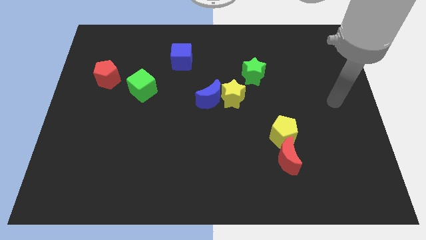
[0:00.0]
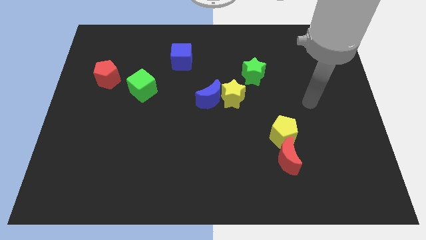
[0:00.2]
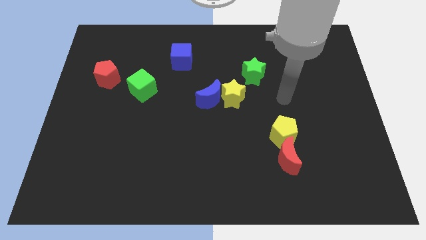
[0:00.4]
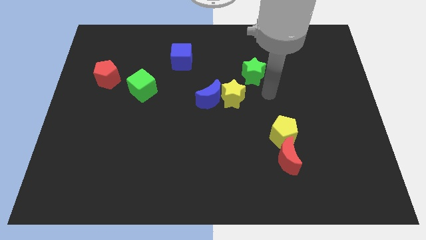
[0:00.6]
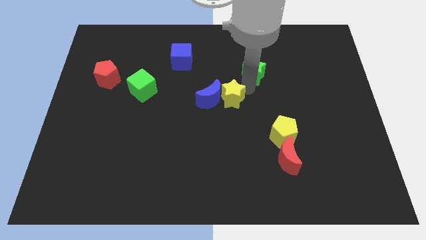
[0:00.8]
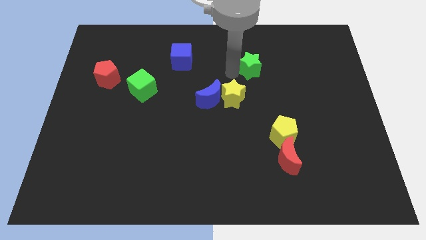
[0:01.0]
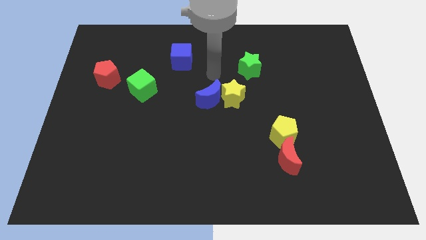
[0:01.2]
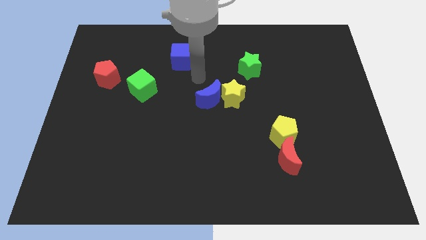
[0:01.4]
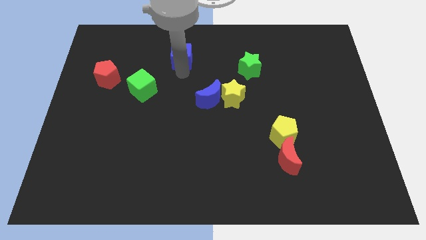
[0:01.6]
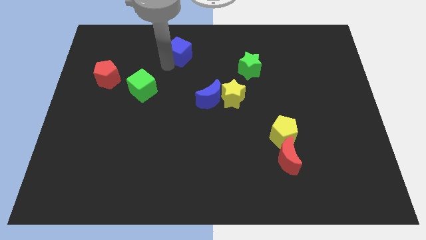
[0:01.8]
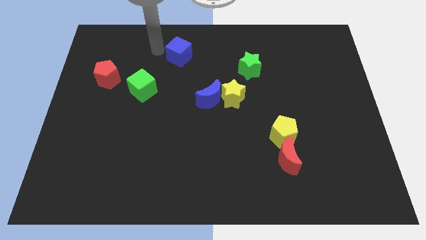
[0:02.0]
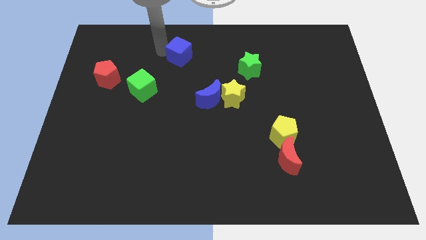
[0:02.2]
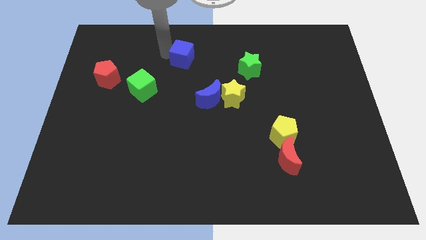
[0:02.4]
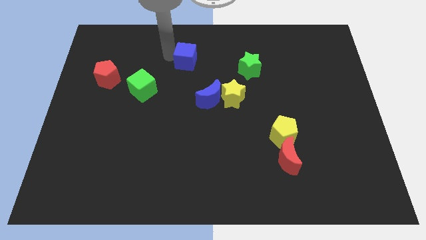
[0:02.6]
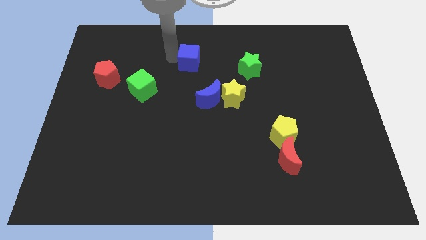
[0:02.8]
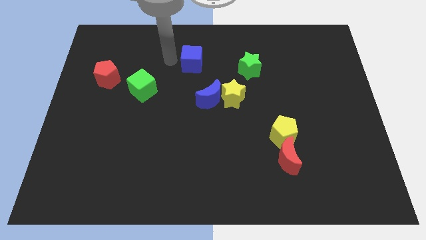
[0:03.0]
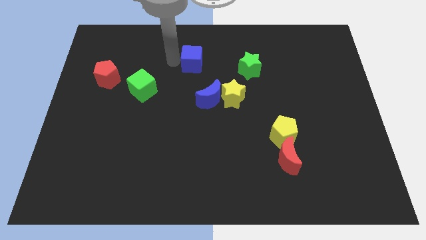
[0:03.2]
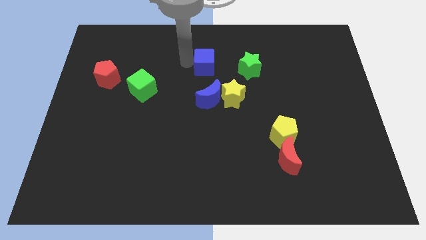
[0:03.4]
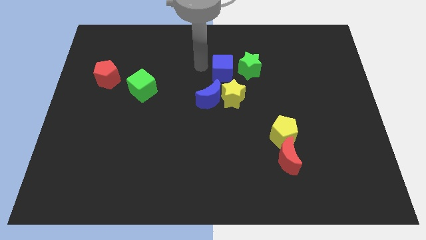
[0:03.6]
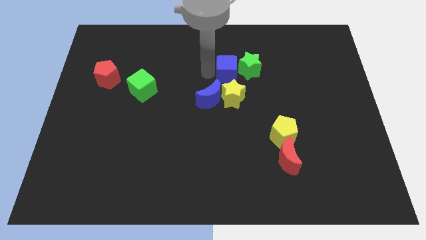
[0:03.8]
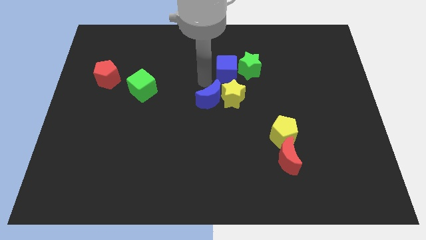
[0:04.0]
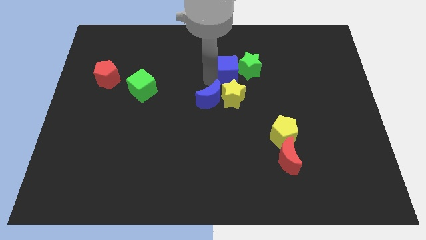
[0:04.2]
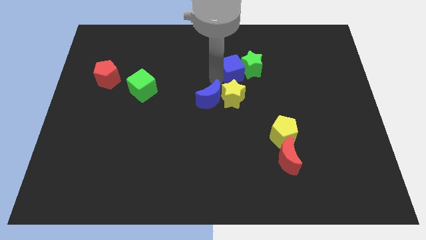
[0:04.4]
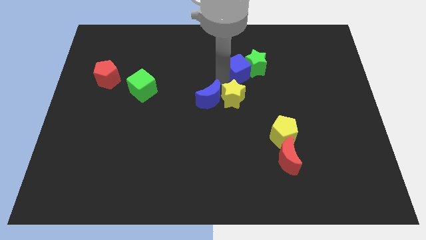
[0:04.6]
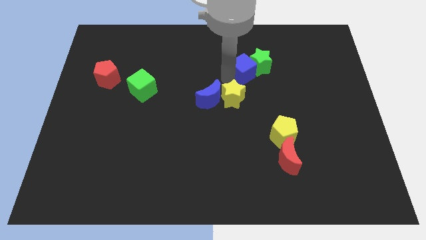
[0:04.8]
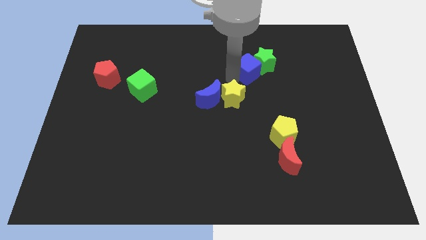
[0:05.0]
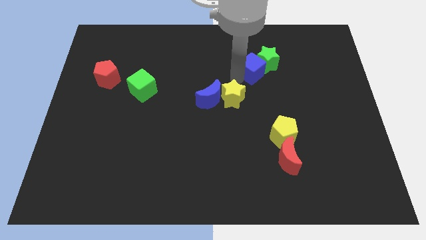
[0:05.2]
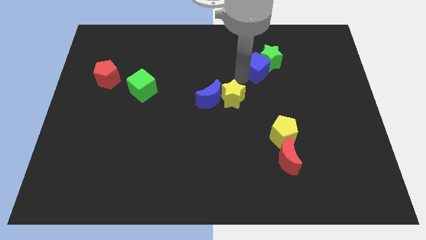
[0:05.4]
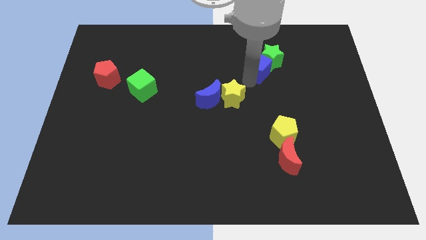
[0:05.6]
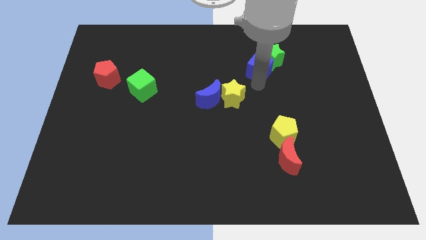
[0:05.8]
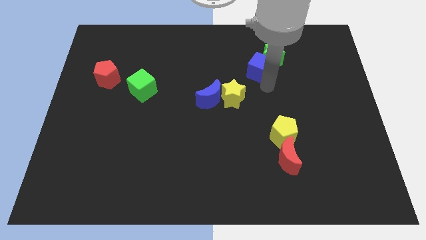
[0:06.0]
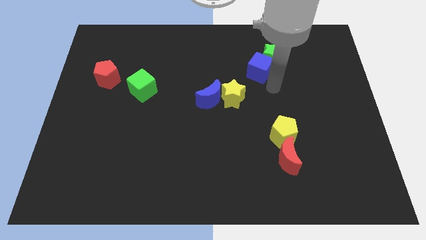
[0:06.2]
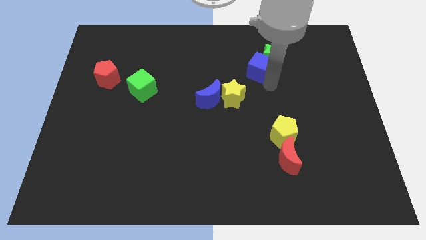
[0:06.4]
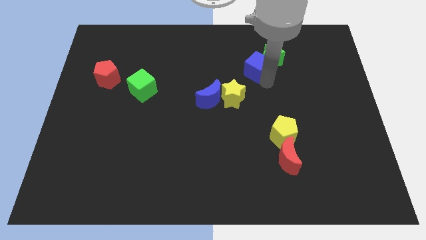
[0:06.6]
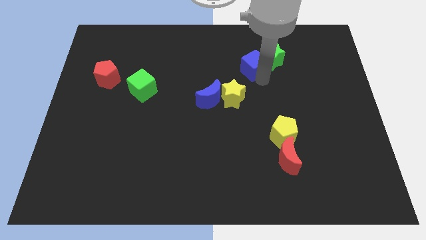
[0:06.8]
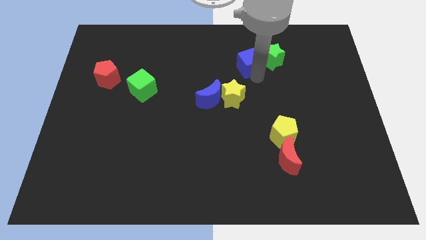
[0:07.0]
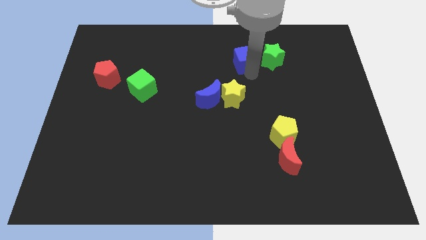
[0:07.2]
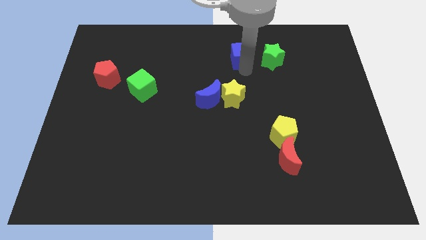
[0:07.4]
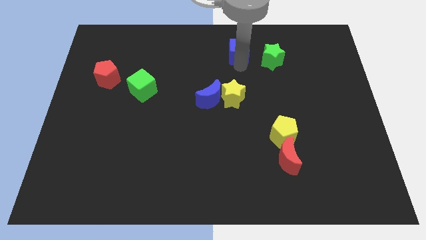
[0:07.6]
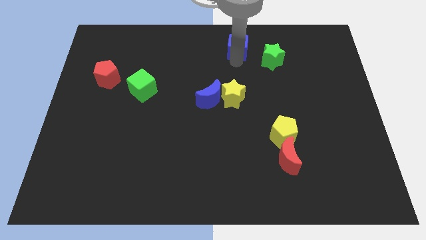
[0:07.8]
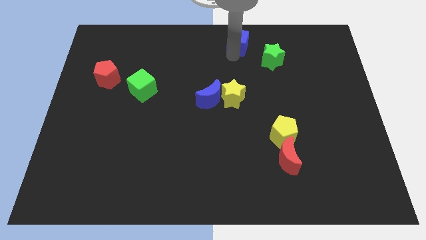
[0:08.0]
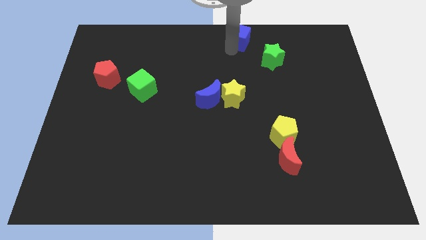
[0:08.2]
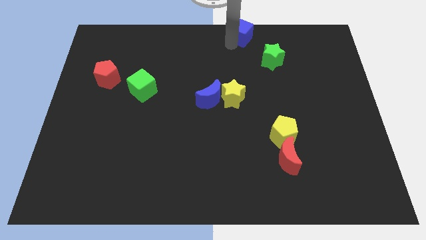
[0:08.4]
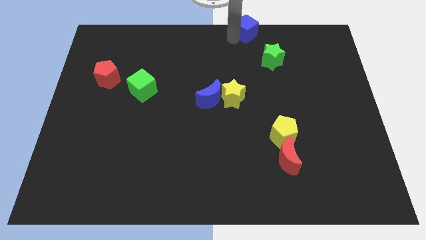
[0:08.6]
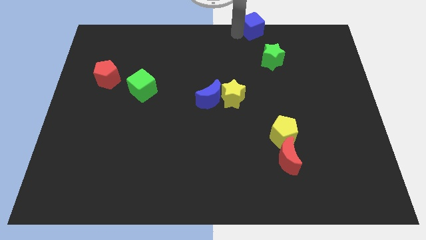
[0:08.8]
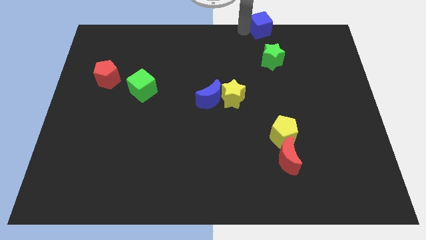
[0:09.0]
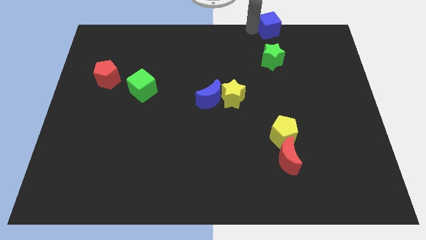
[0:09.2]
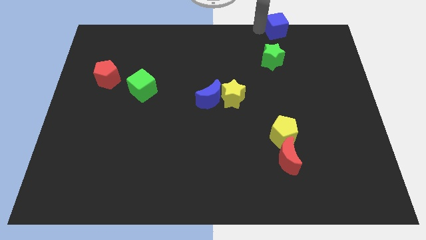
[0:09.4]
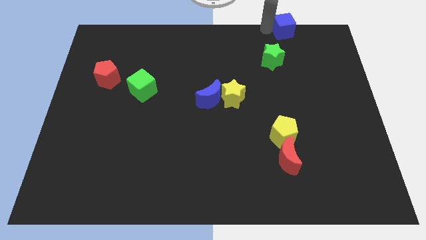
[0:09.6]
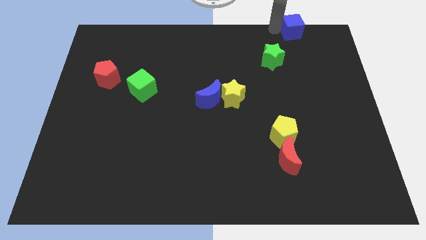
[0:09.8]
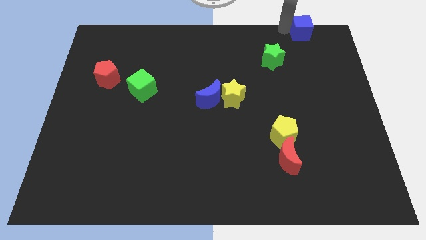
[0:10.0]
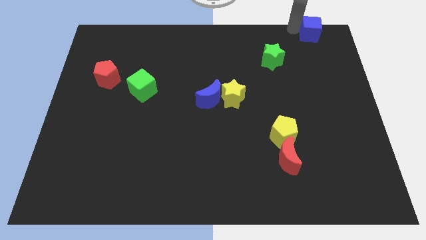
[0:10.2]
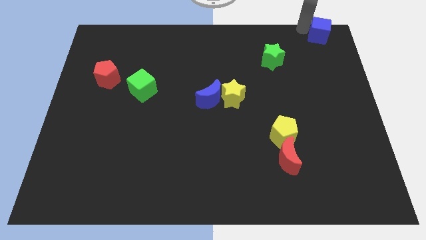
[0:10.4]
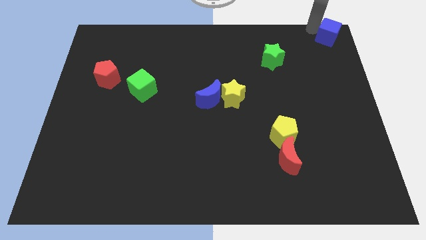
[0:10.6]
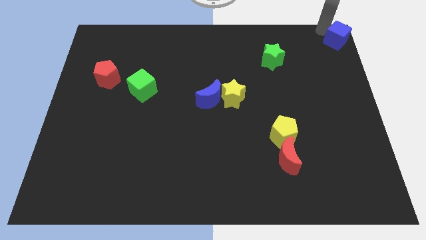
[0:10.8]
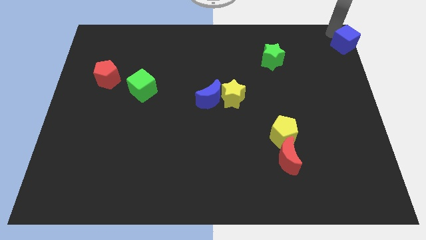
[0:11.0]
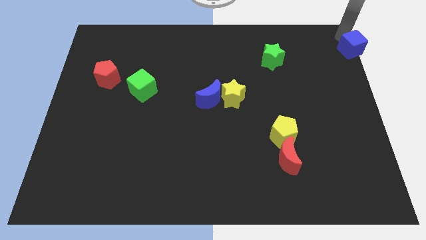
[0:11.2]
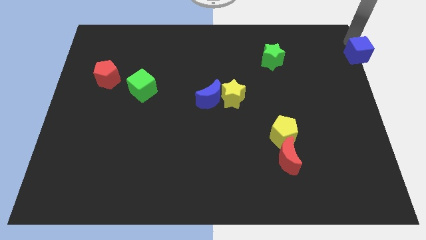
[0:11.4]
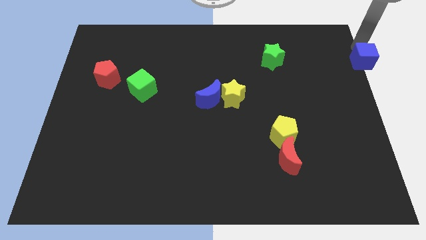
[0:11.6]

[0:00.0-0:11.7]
slide the blue cube to the right side of the board
